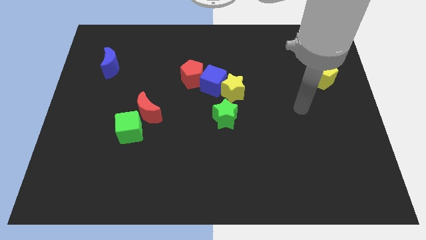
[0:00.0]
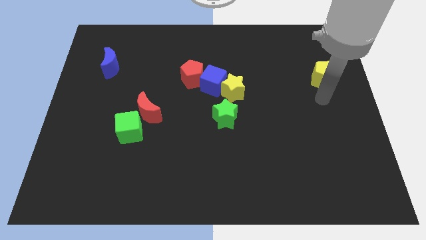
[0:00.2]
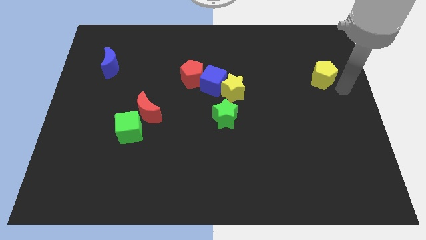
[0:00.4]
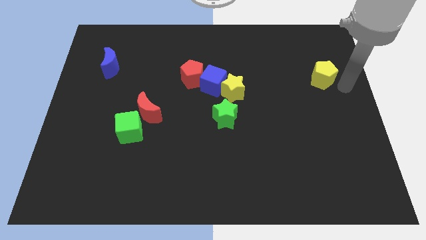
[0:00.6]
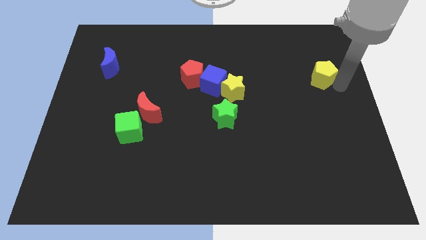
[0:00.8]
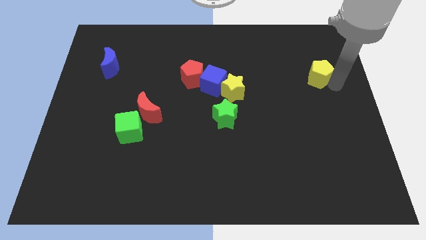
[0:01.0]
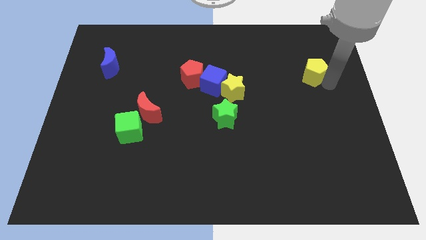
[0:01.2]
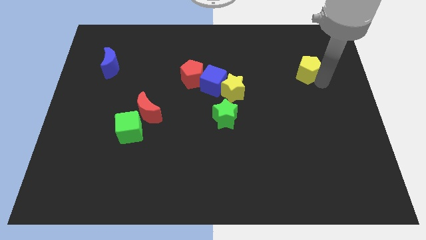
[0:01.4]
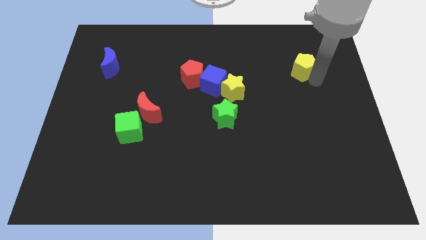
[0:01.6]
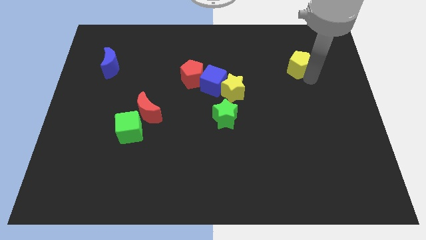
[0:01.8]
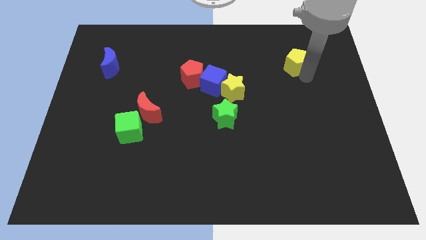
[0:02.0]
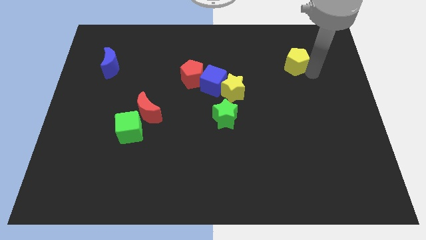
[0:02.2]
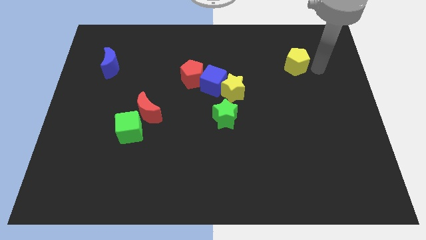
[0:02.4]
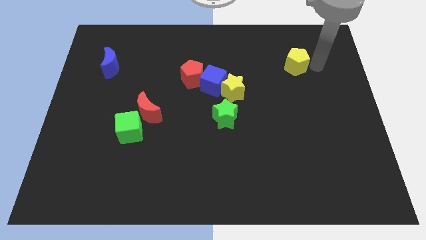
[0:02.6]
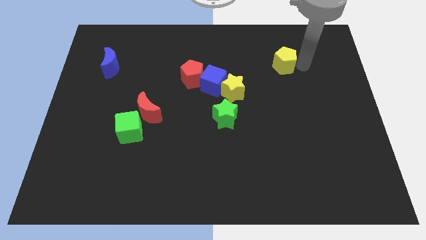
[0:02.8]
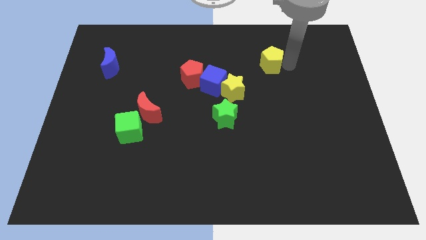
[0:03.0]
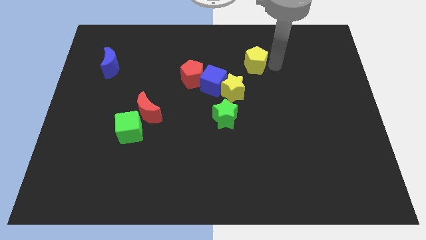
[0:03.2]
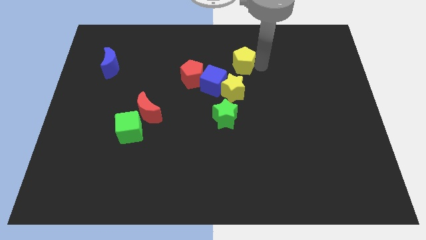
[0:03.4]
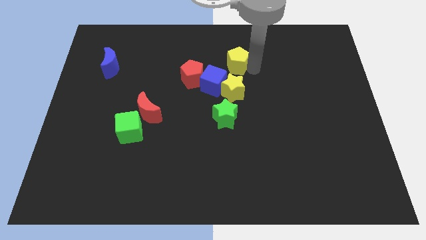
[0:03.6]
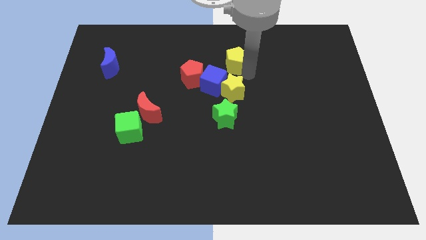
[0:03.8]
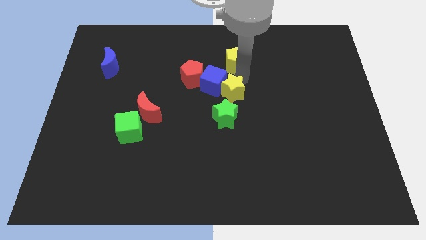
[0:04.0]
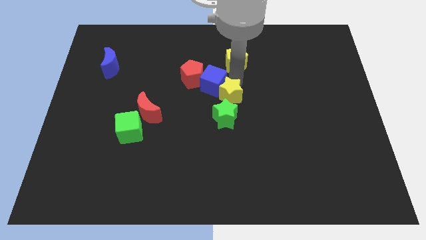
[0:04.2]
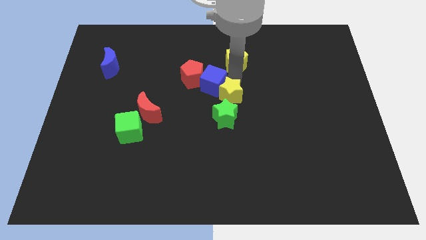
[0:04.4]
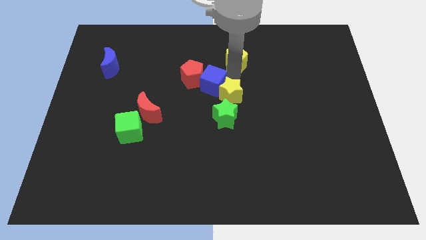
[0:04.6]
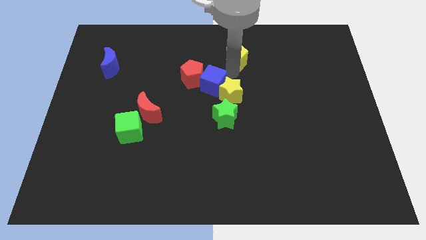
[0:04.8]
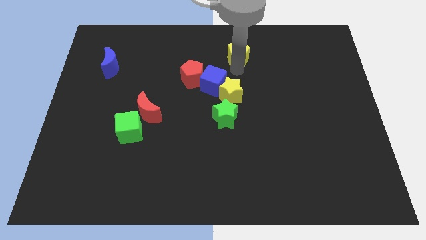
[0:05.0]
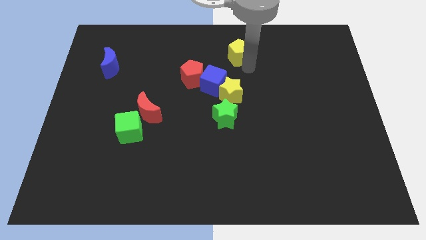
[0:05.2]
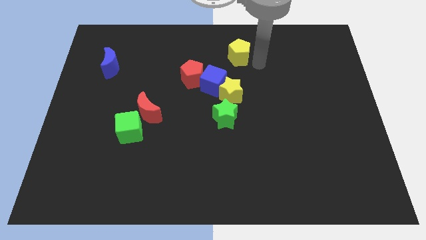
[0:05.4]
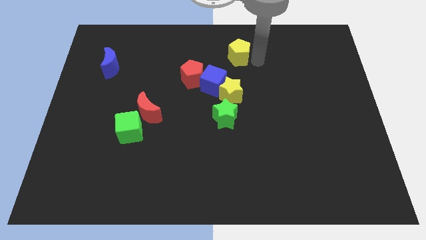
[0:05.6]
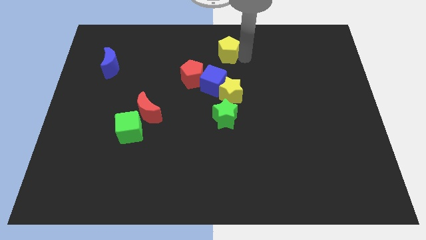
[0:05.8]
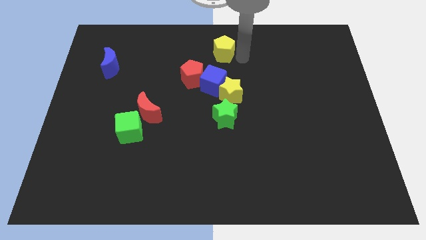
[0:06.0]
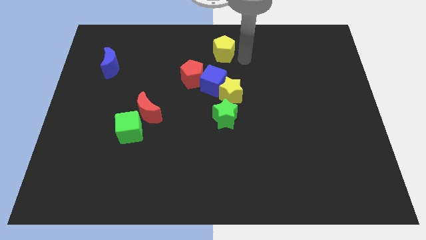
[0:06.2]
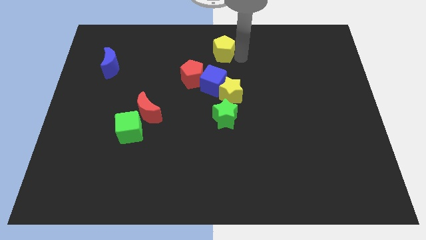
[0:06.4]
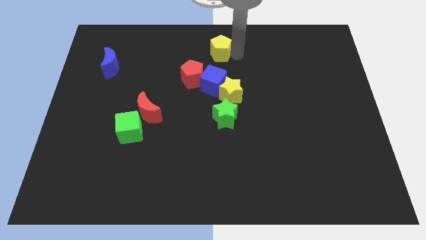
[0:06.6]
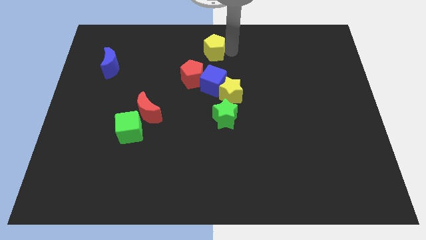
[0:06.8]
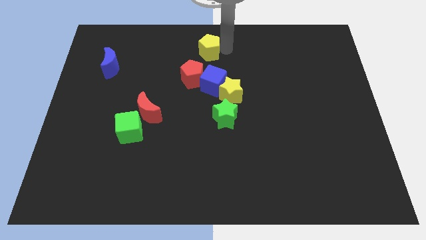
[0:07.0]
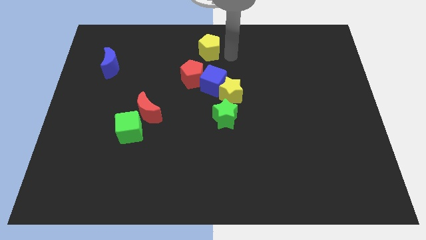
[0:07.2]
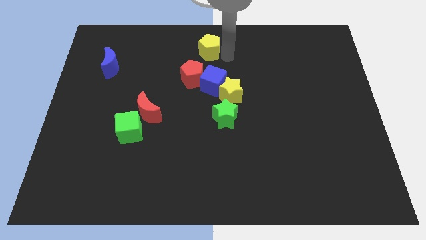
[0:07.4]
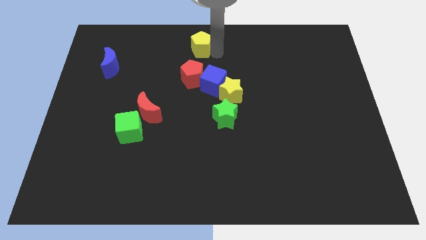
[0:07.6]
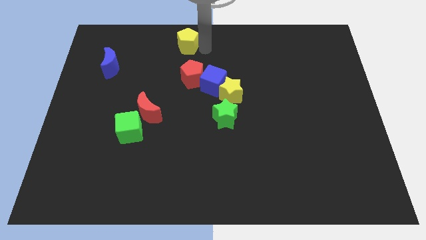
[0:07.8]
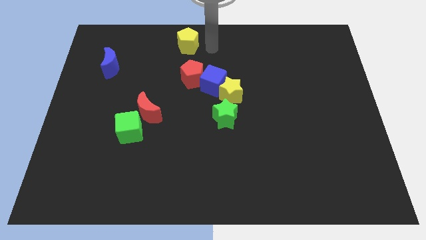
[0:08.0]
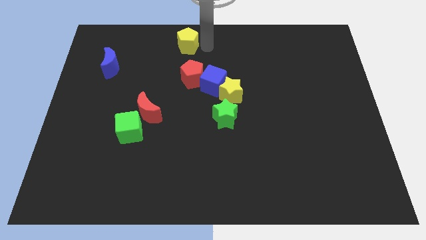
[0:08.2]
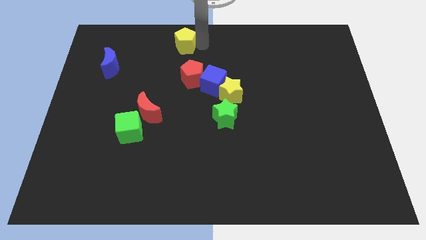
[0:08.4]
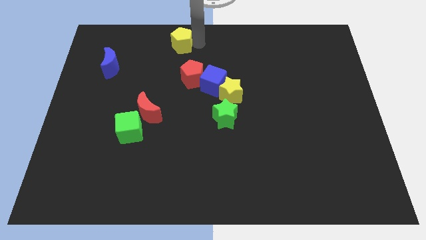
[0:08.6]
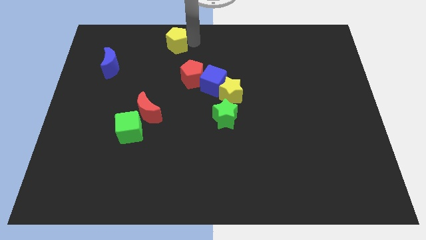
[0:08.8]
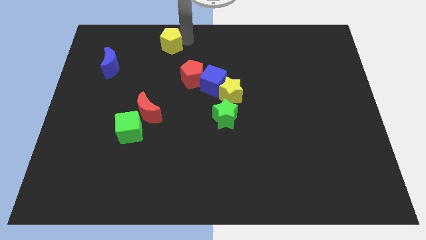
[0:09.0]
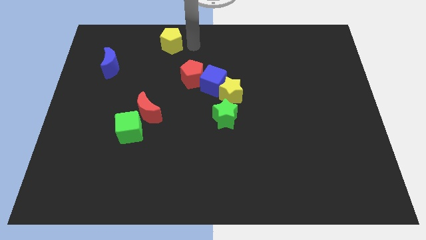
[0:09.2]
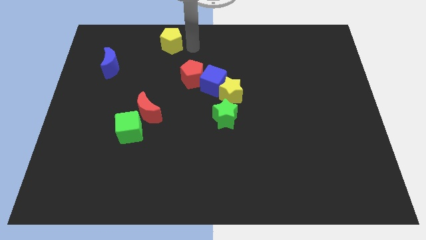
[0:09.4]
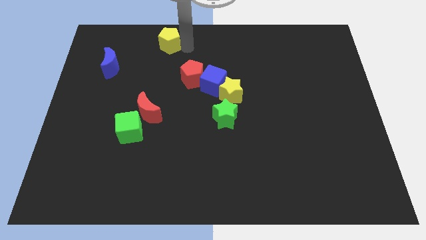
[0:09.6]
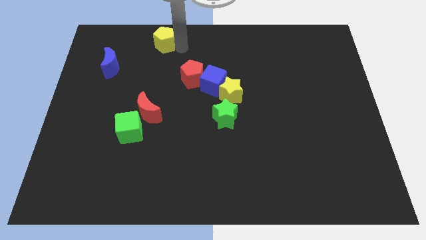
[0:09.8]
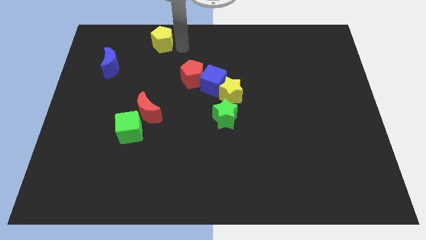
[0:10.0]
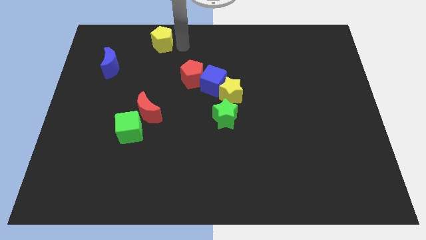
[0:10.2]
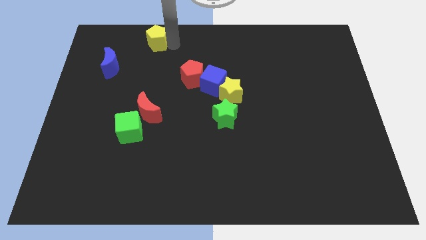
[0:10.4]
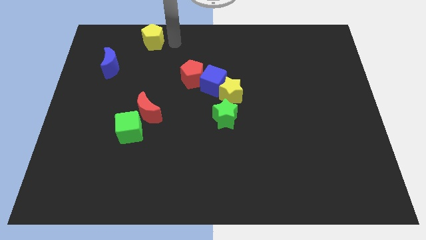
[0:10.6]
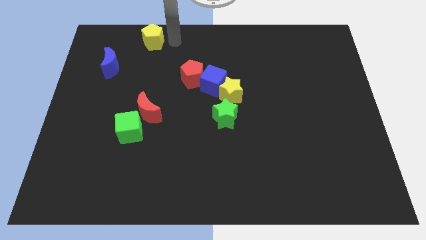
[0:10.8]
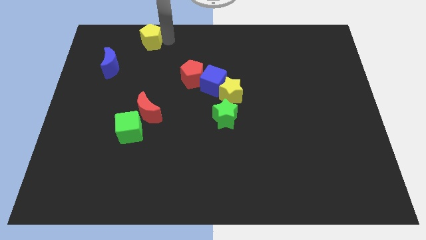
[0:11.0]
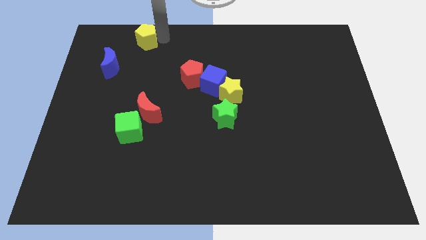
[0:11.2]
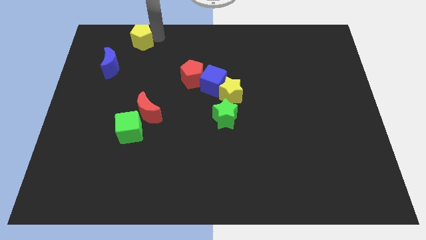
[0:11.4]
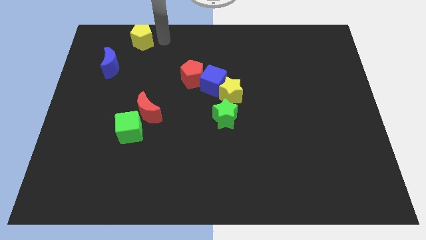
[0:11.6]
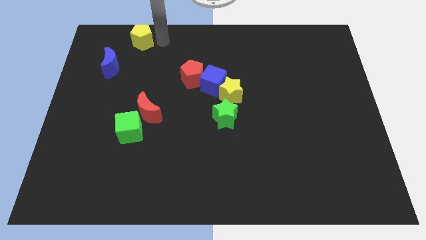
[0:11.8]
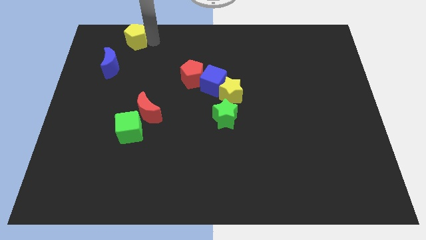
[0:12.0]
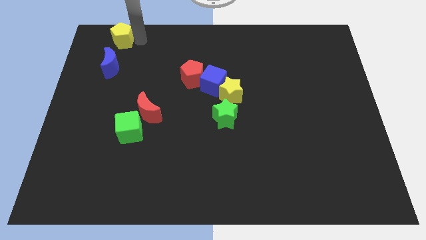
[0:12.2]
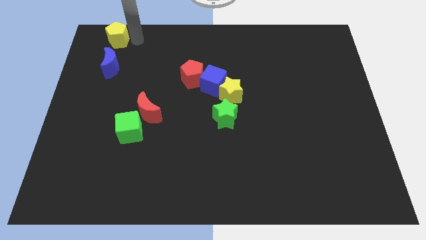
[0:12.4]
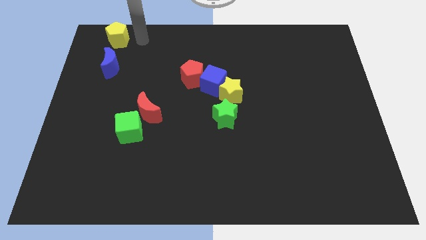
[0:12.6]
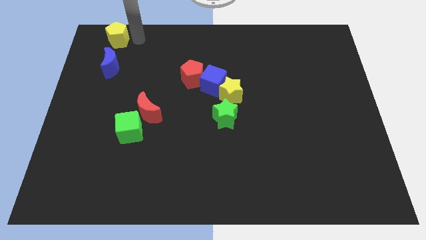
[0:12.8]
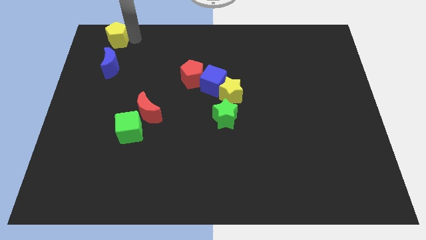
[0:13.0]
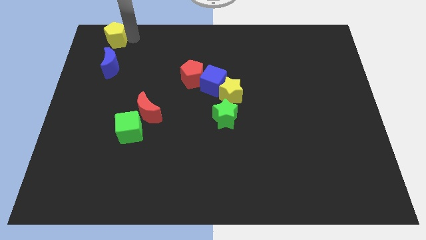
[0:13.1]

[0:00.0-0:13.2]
push the yellow pentagon to the top left of the board

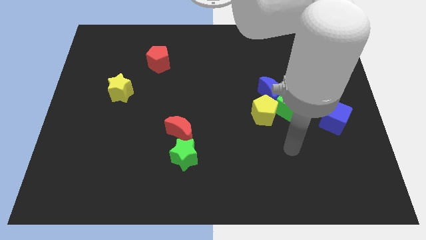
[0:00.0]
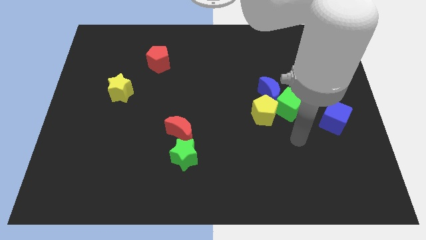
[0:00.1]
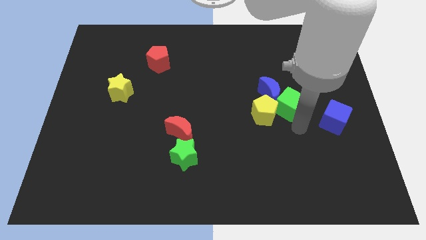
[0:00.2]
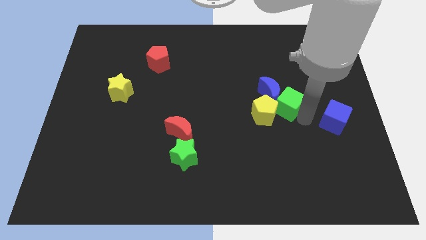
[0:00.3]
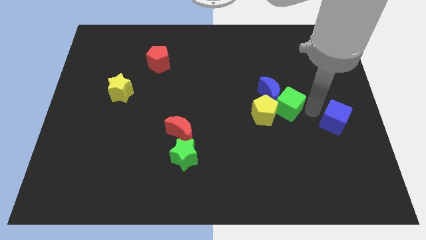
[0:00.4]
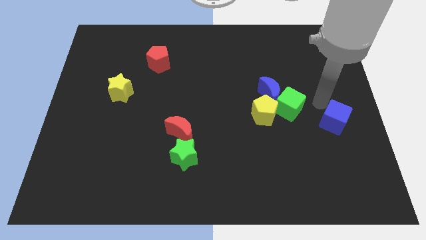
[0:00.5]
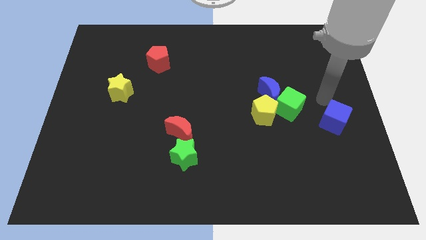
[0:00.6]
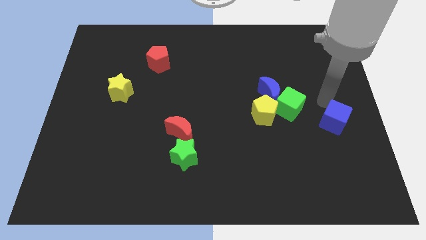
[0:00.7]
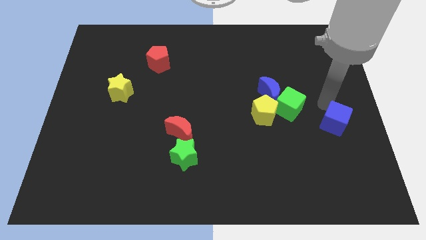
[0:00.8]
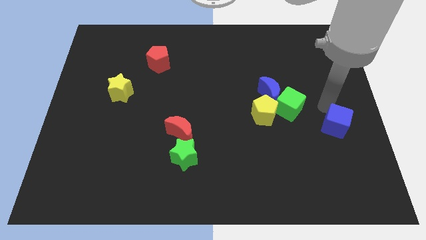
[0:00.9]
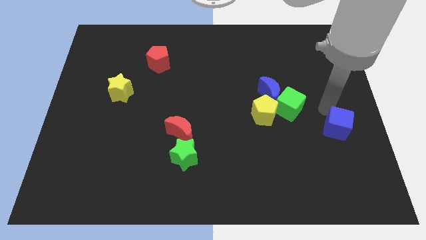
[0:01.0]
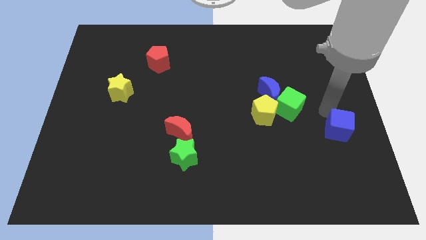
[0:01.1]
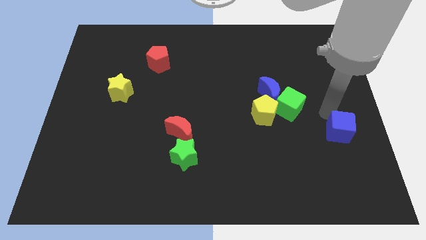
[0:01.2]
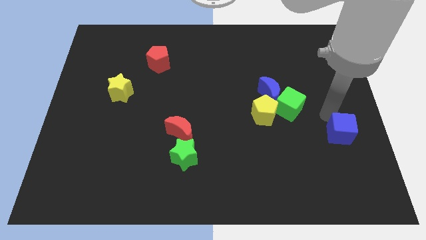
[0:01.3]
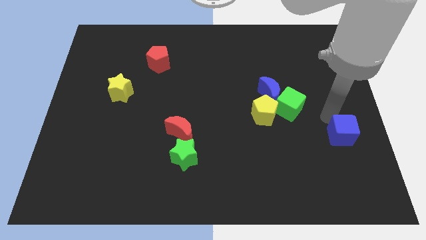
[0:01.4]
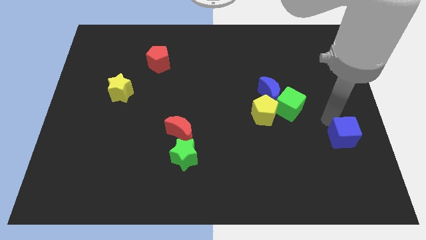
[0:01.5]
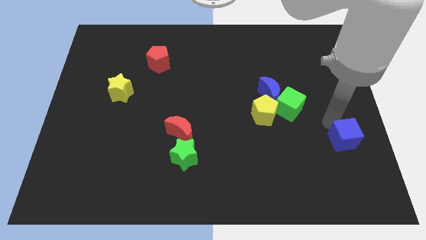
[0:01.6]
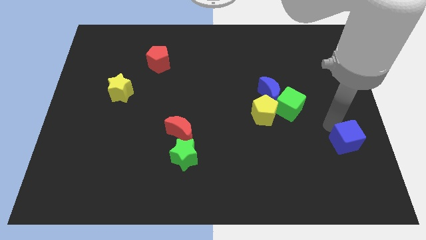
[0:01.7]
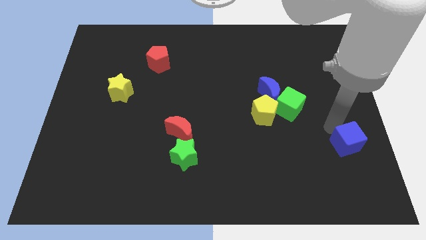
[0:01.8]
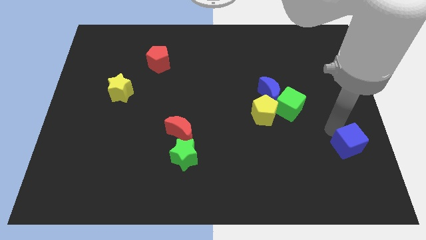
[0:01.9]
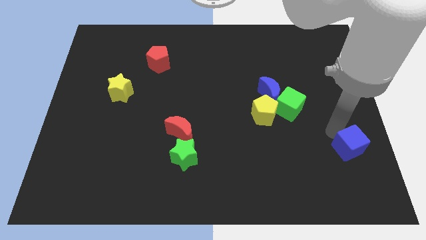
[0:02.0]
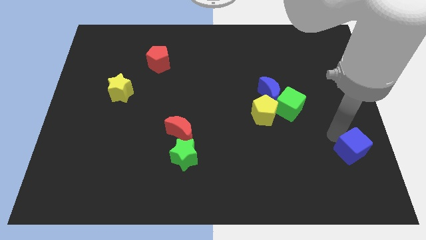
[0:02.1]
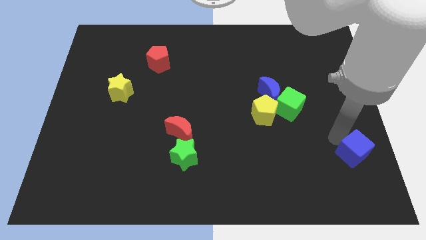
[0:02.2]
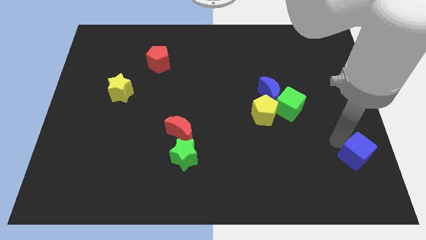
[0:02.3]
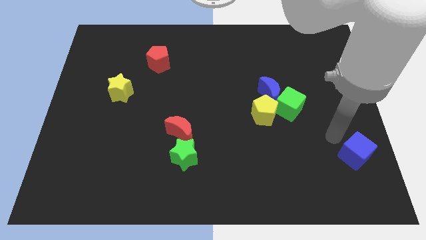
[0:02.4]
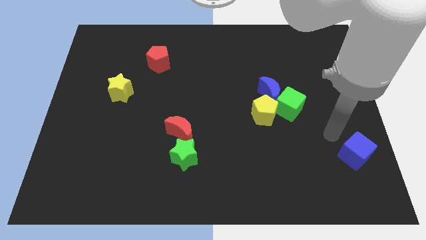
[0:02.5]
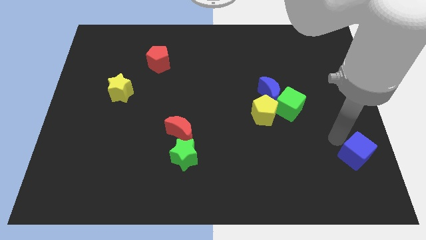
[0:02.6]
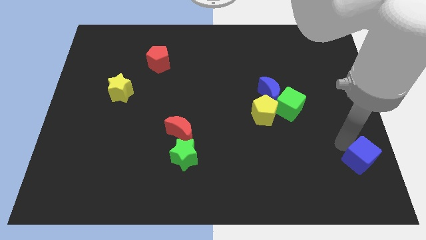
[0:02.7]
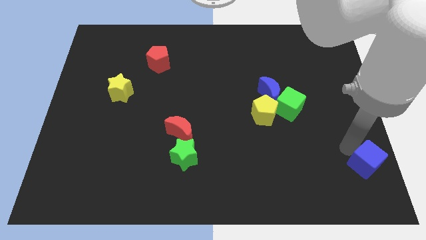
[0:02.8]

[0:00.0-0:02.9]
move the blue cube to the bottom right of the board
